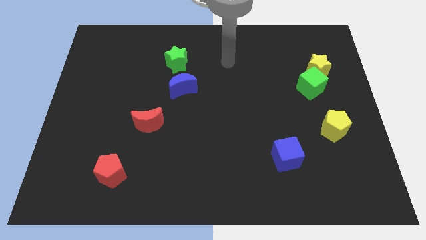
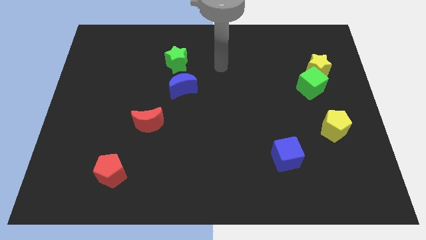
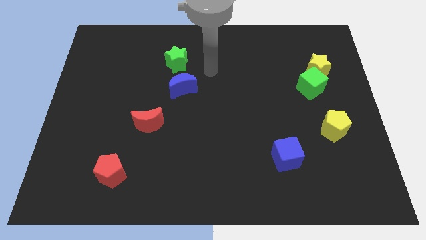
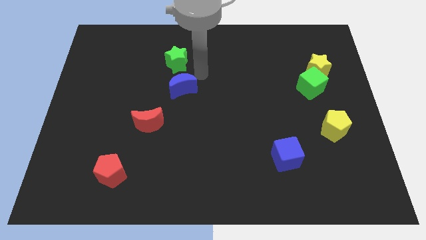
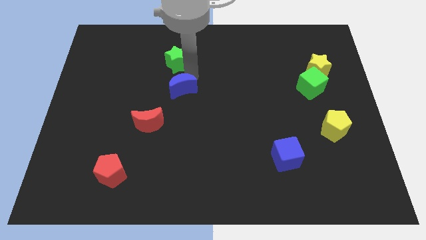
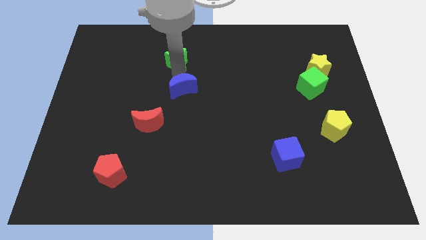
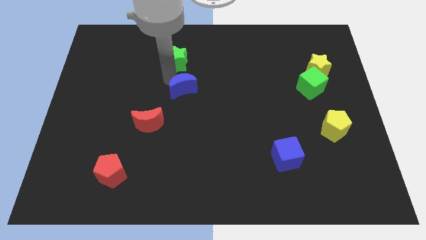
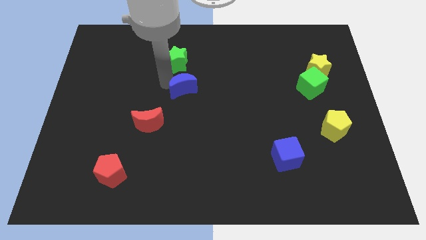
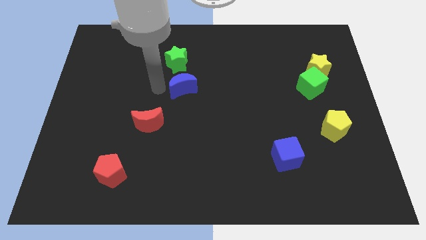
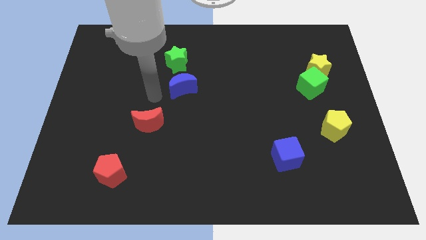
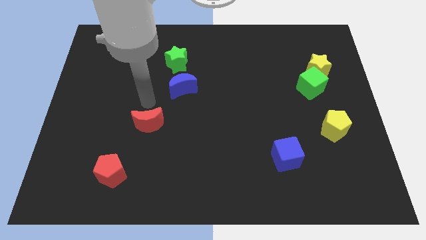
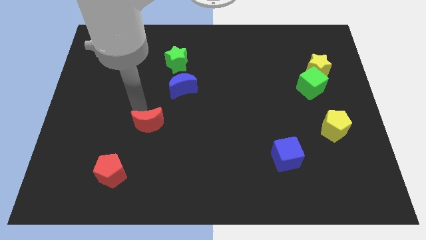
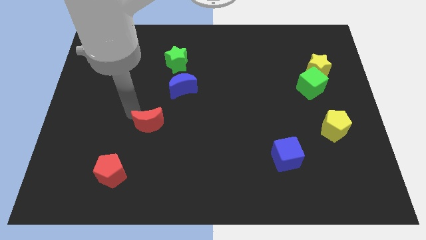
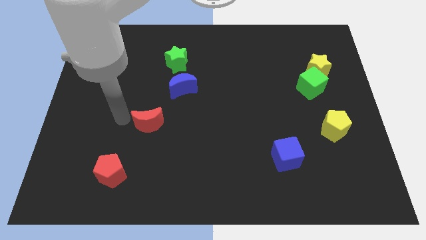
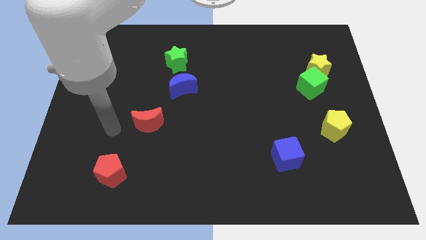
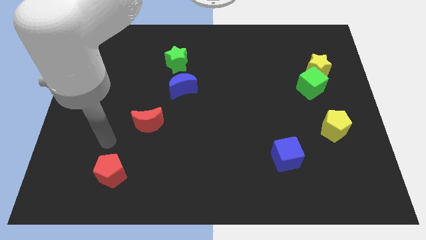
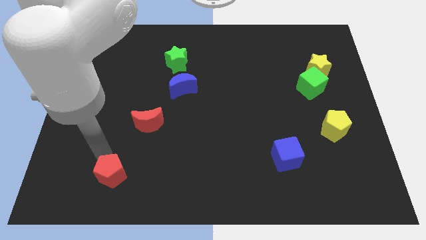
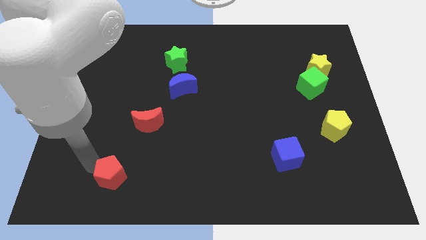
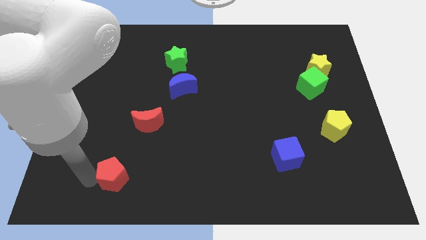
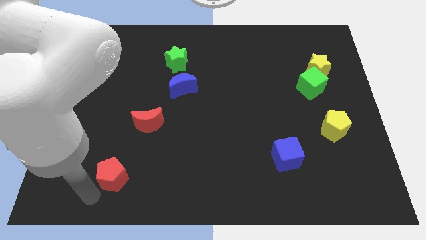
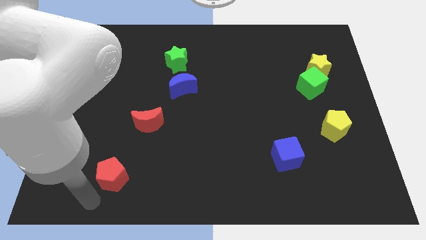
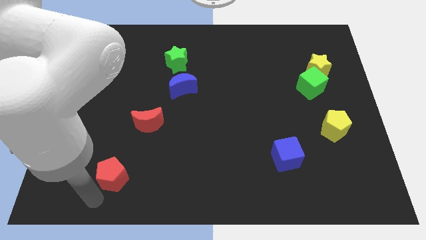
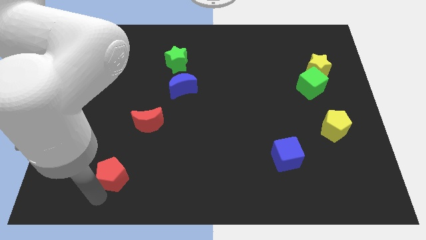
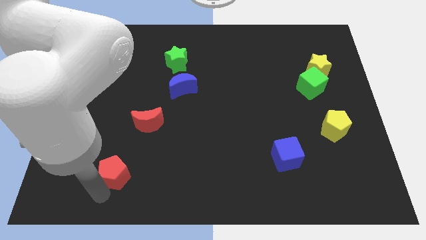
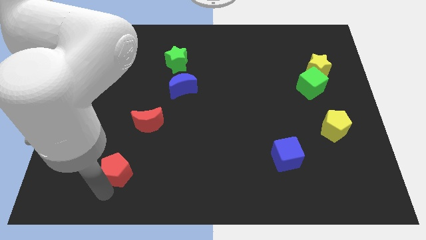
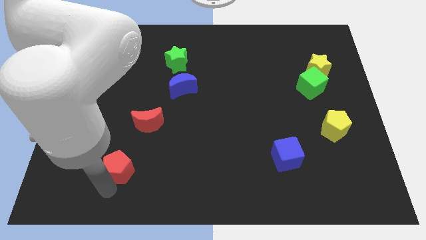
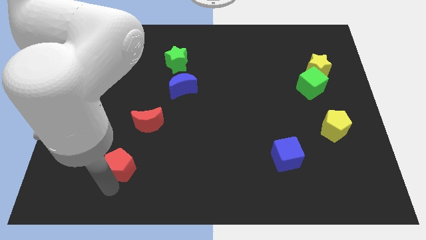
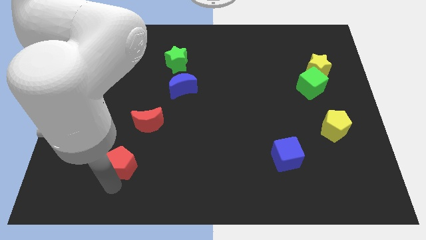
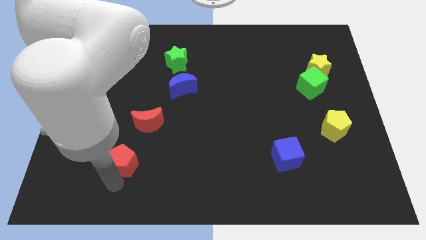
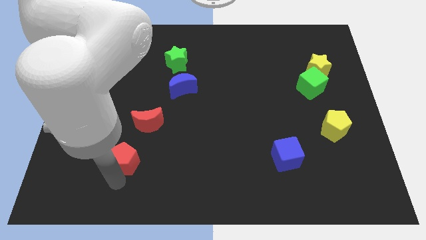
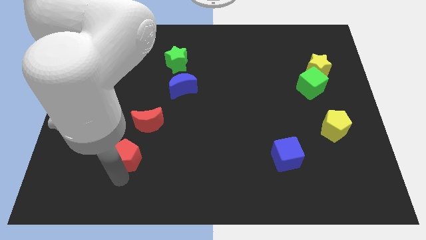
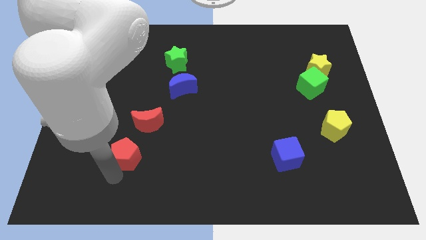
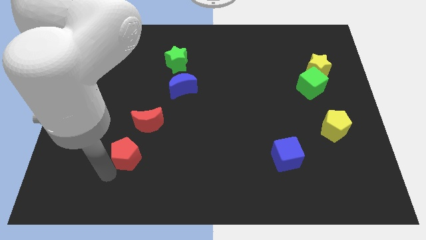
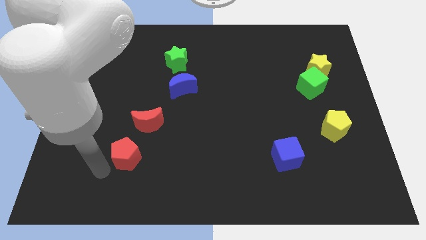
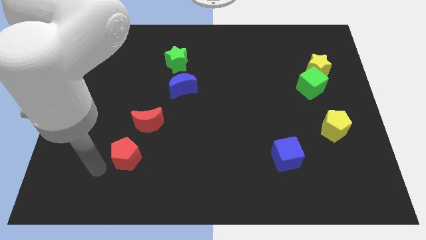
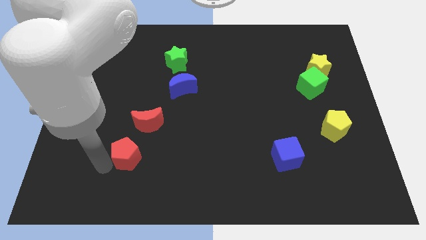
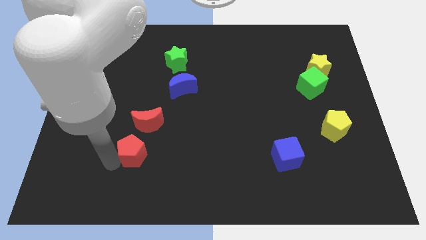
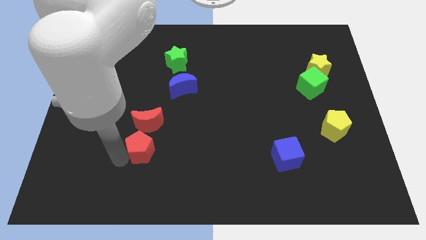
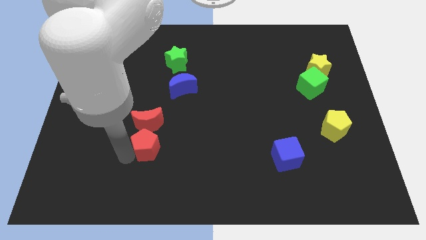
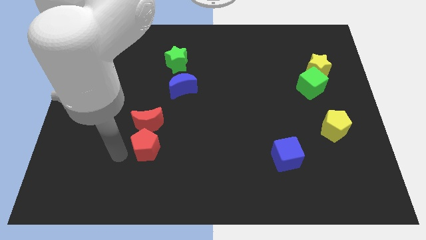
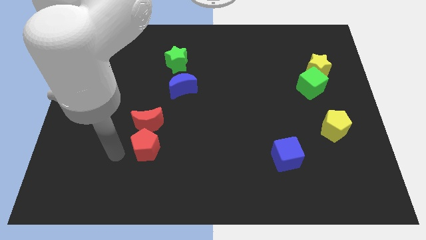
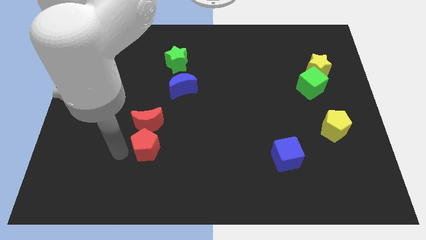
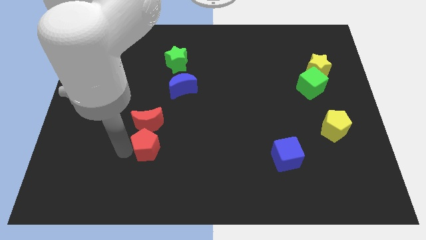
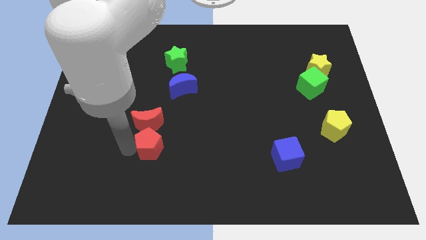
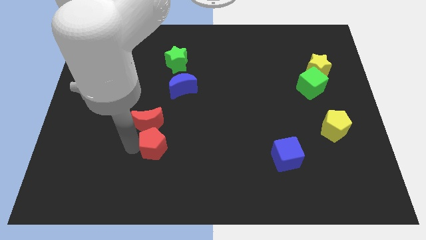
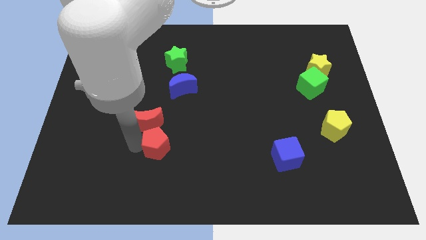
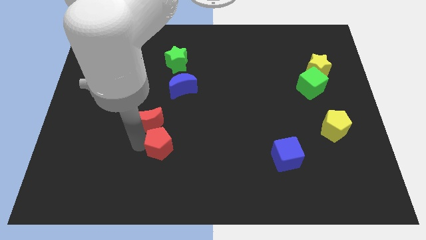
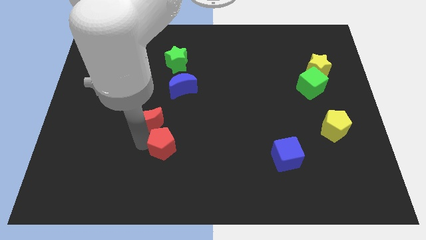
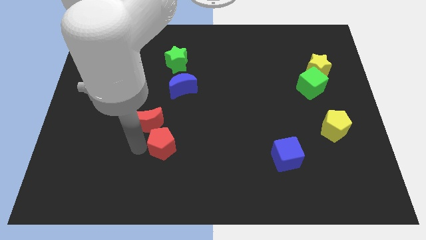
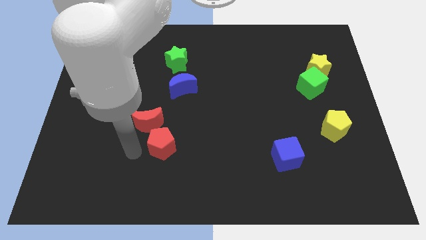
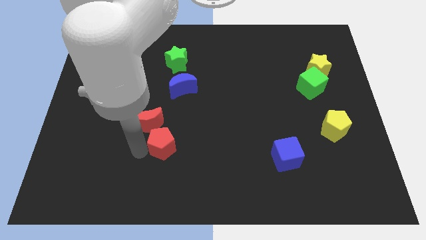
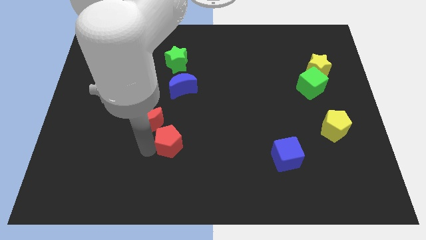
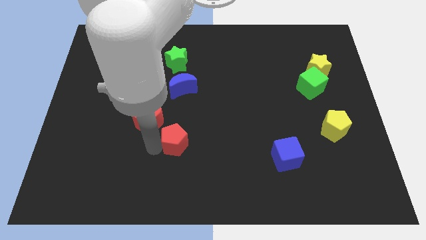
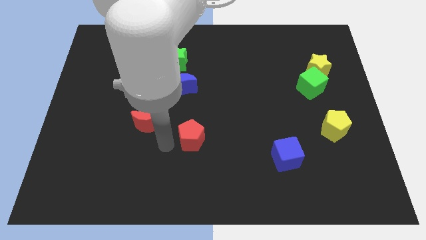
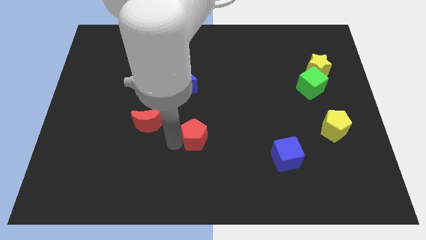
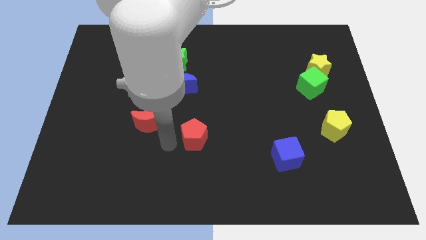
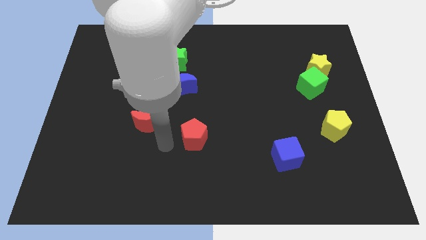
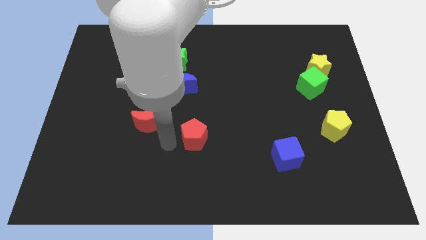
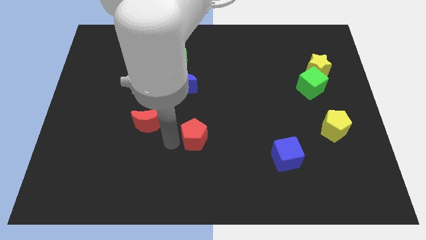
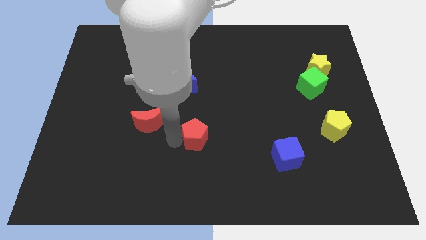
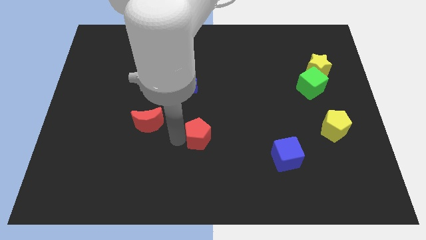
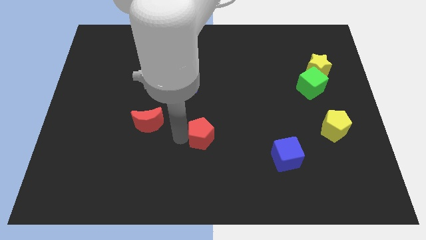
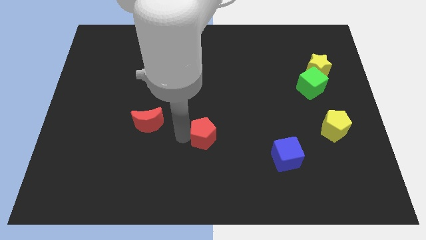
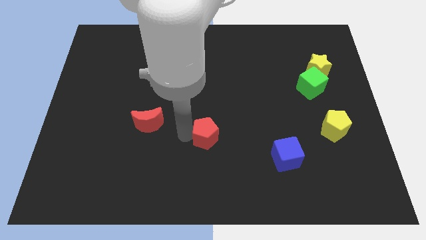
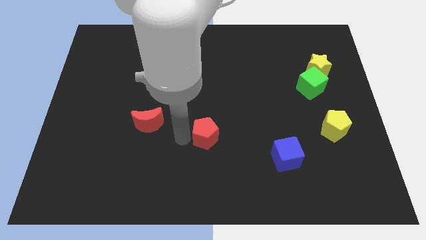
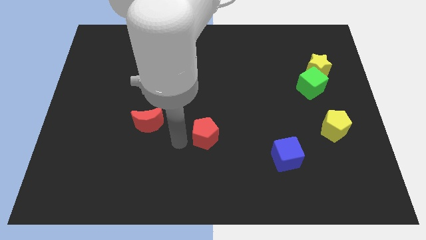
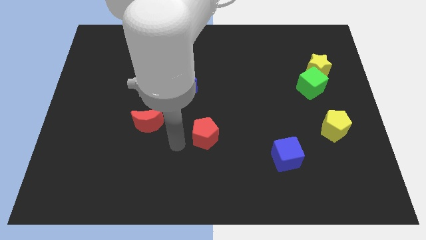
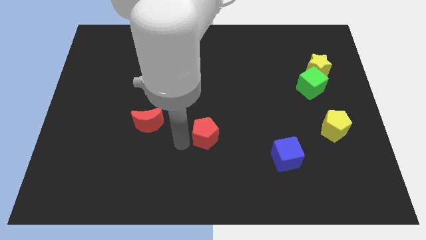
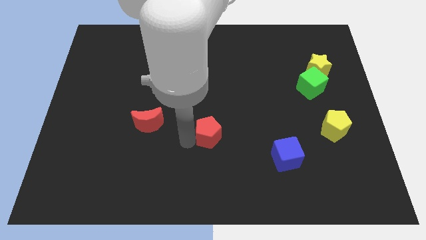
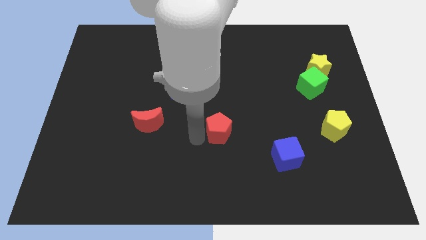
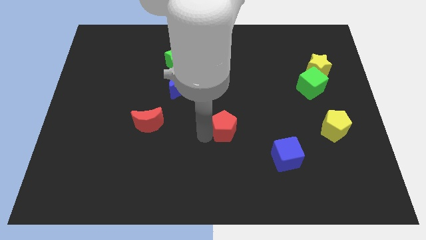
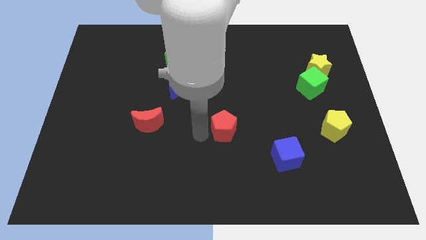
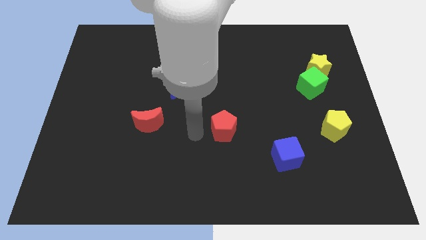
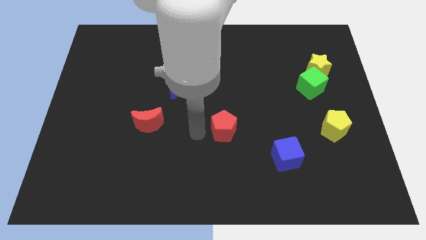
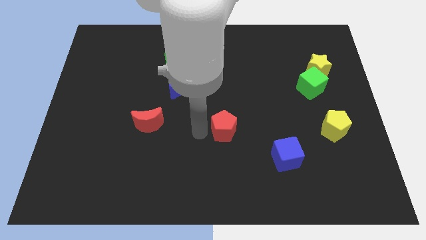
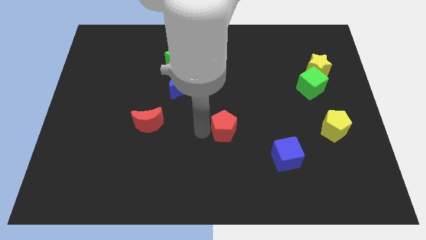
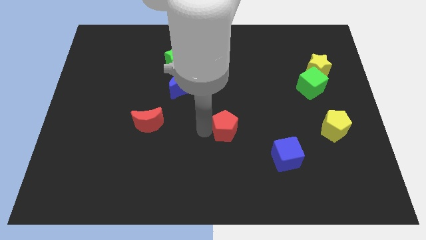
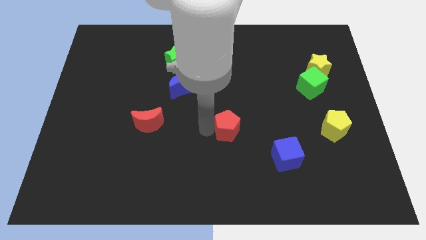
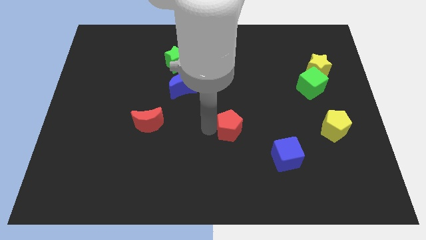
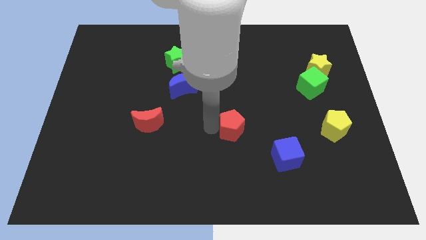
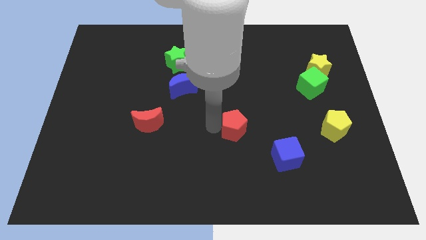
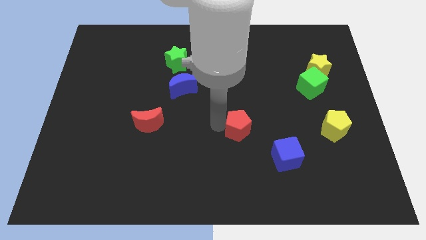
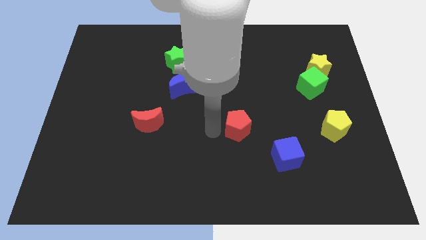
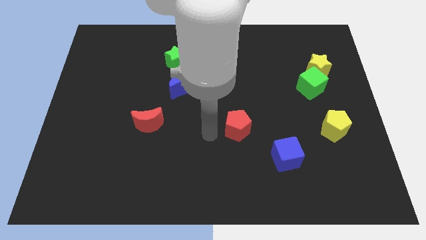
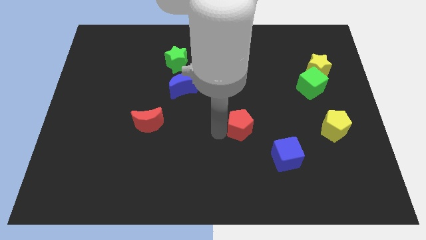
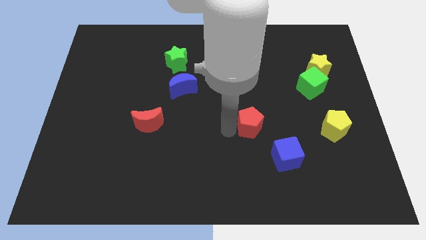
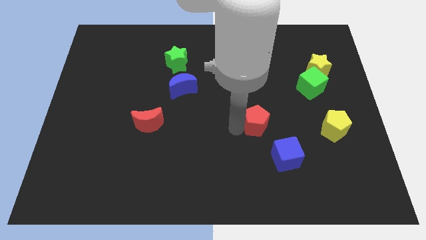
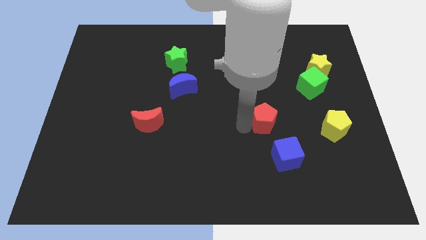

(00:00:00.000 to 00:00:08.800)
slide the red pentagon to the top side of the blue cube
